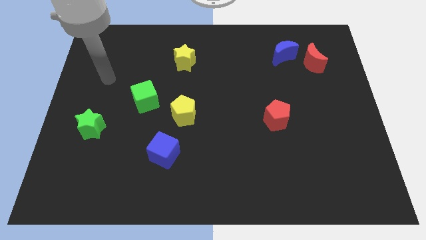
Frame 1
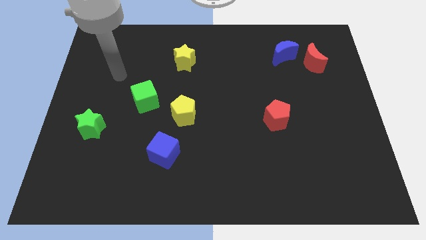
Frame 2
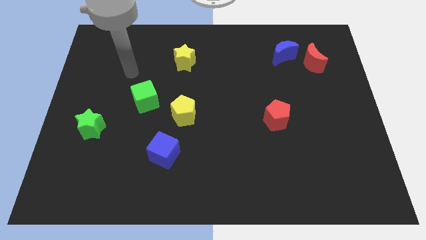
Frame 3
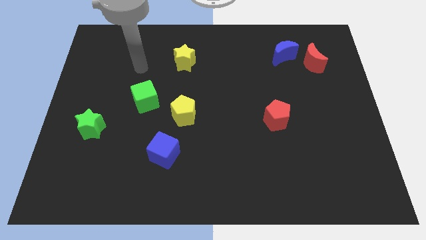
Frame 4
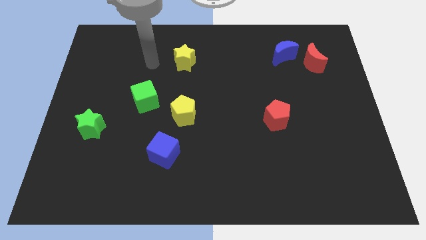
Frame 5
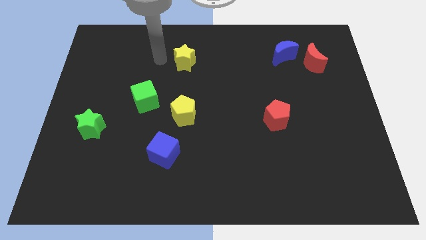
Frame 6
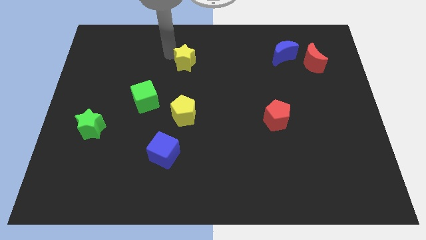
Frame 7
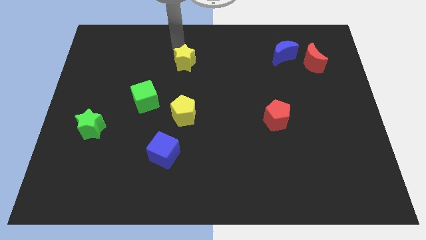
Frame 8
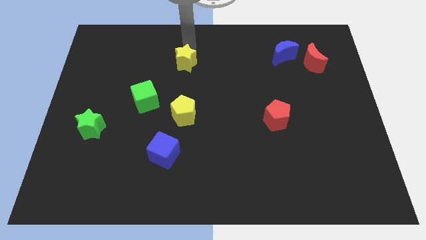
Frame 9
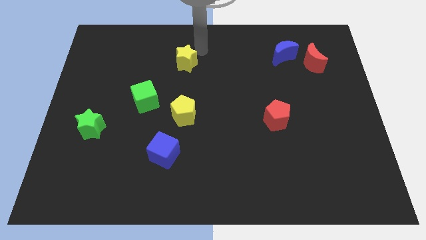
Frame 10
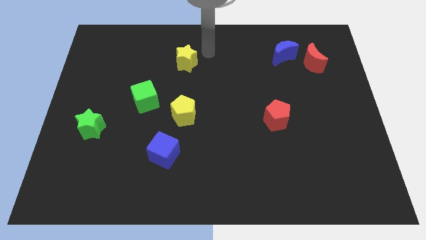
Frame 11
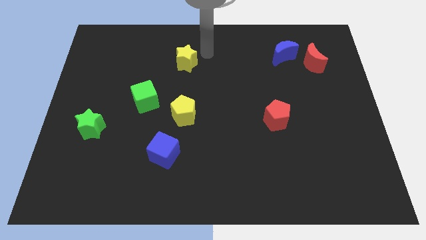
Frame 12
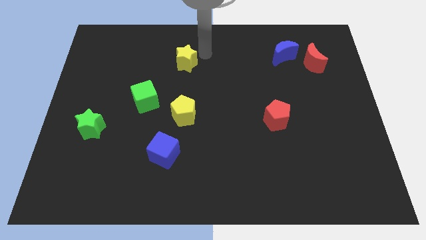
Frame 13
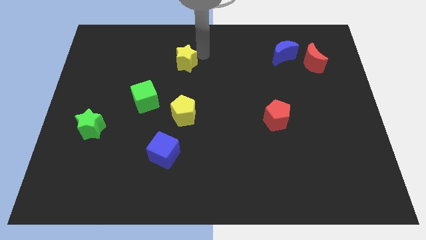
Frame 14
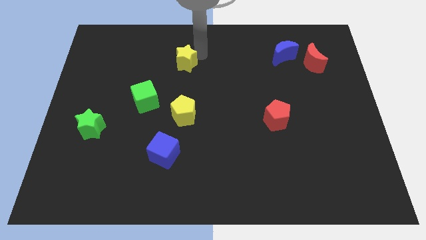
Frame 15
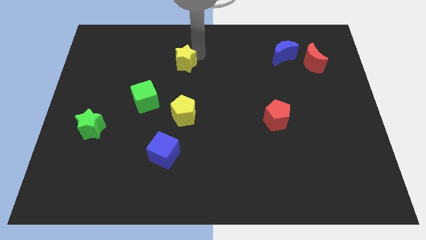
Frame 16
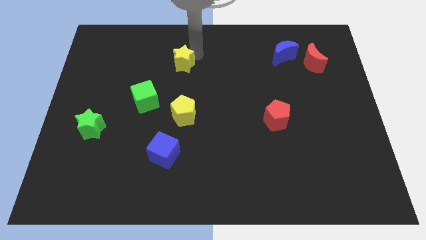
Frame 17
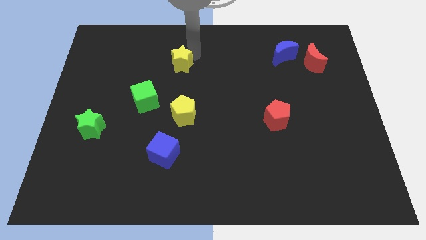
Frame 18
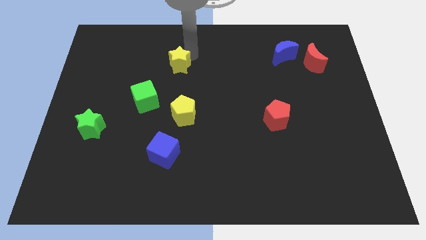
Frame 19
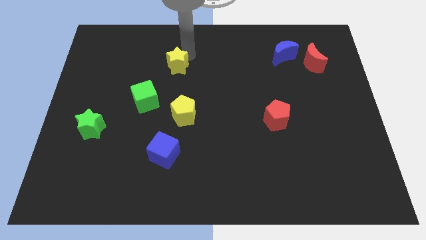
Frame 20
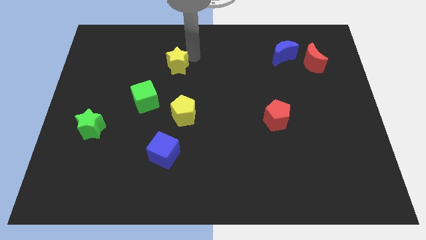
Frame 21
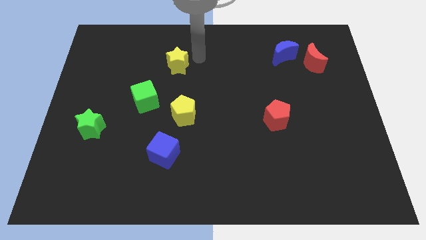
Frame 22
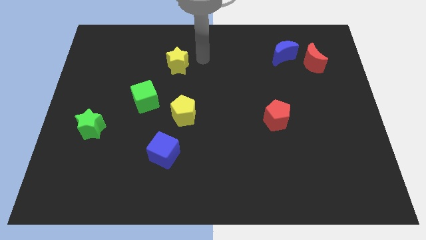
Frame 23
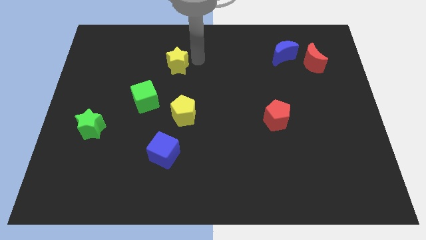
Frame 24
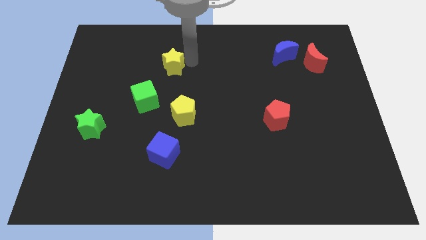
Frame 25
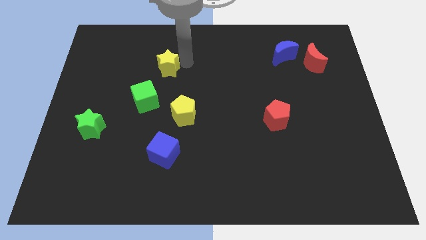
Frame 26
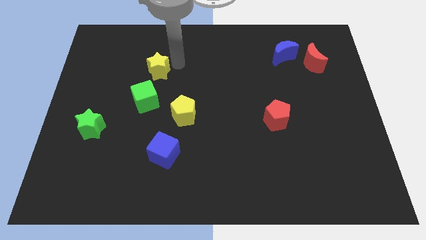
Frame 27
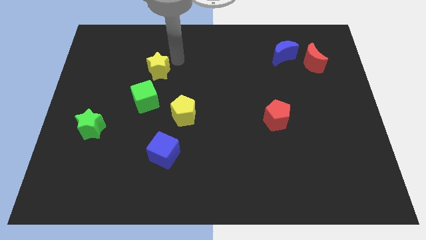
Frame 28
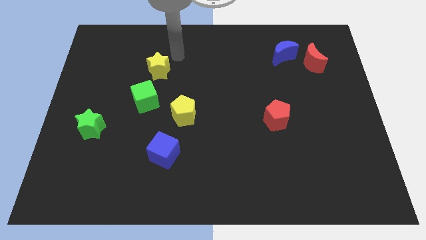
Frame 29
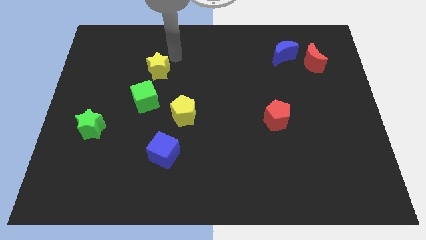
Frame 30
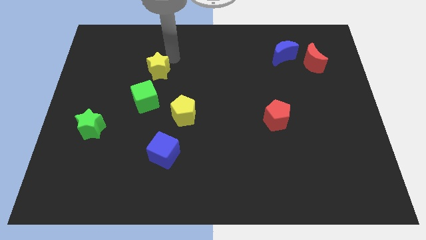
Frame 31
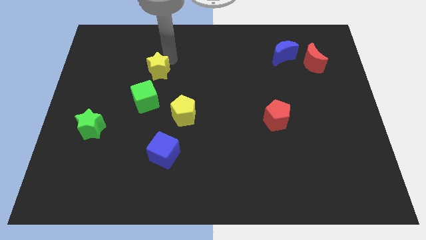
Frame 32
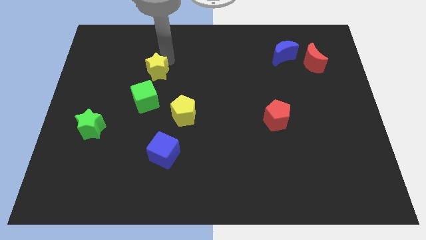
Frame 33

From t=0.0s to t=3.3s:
slide the yellow star downwards and left diagonally slightly

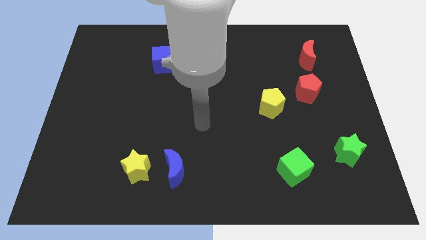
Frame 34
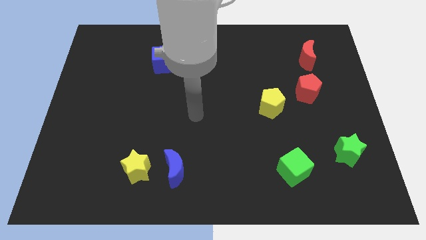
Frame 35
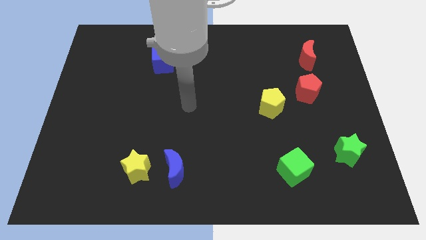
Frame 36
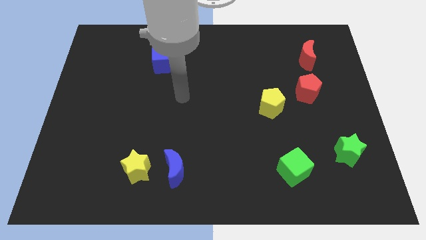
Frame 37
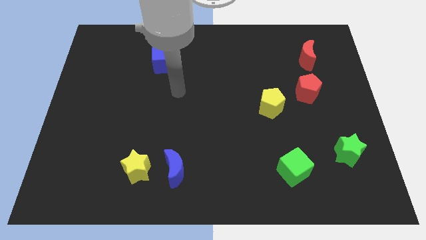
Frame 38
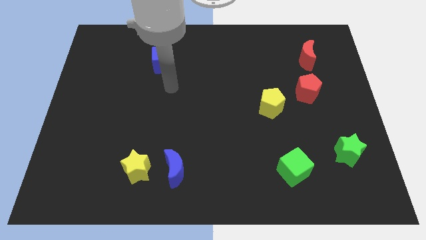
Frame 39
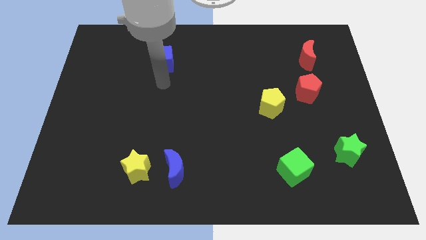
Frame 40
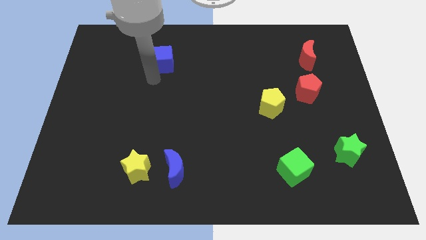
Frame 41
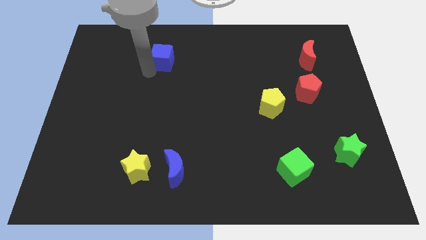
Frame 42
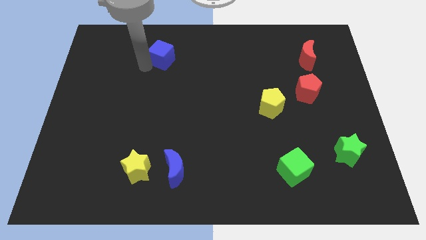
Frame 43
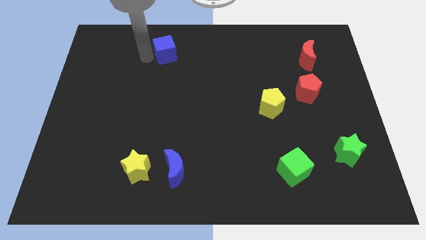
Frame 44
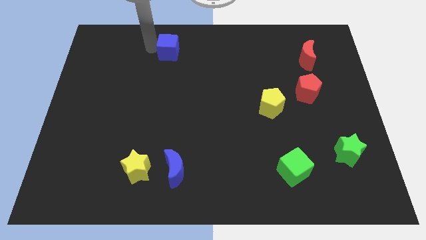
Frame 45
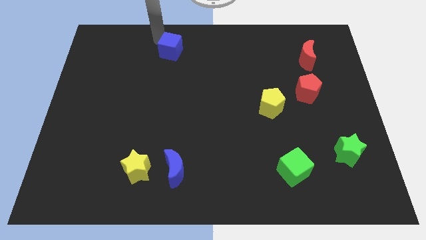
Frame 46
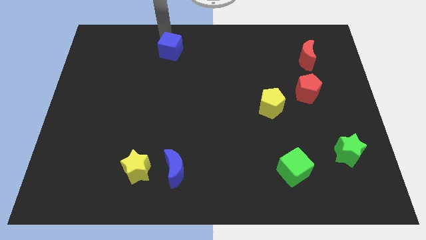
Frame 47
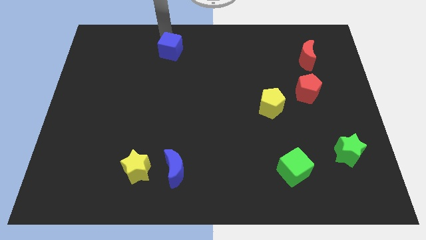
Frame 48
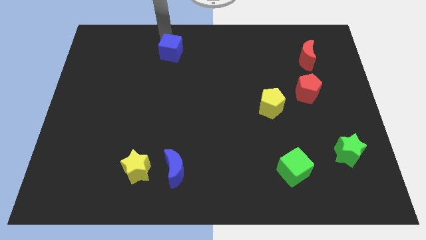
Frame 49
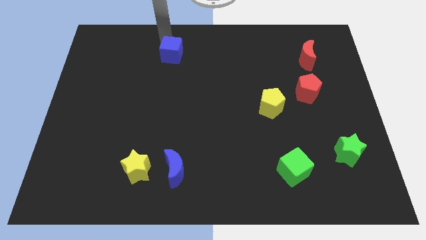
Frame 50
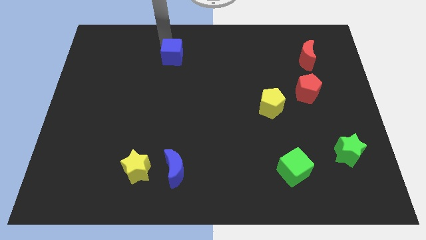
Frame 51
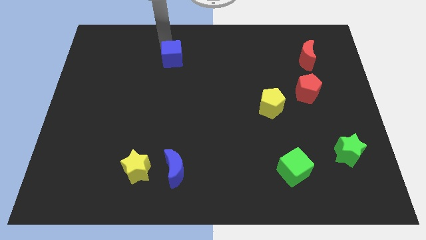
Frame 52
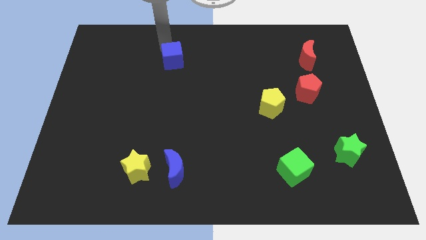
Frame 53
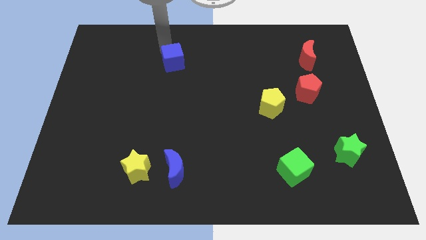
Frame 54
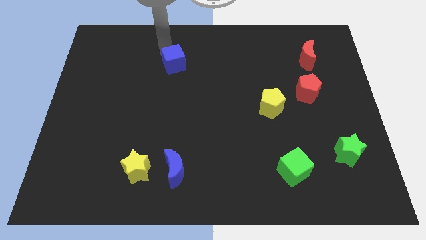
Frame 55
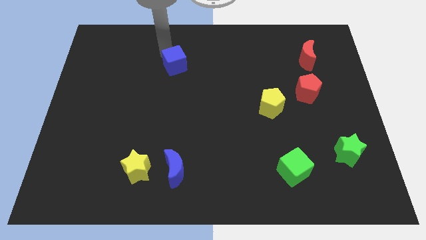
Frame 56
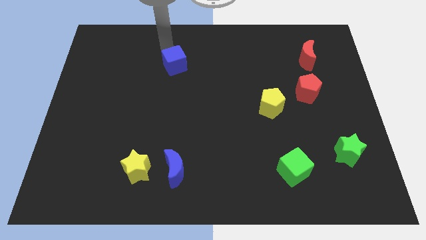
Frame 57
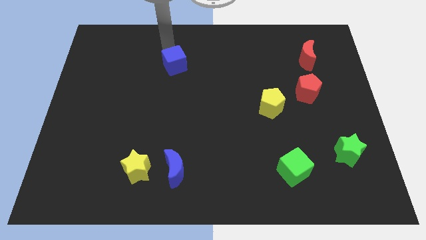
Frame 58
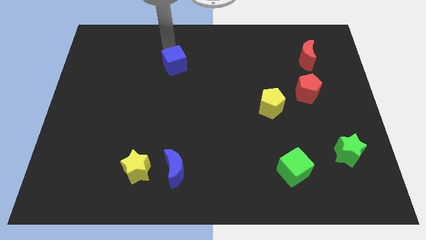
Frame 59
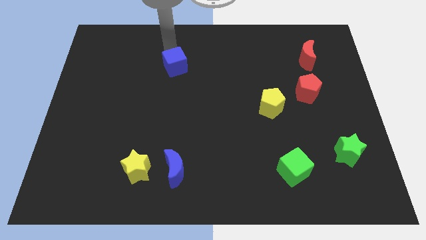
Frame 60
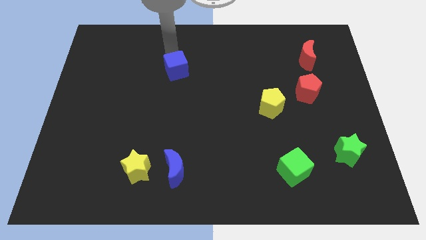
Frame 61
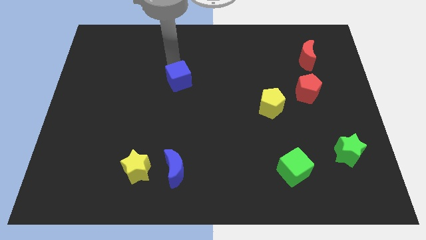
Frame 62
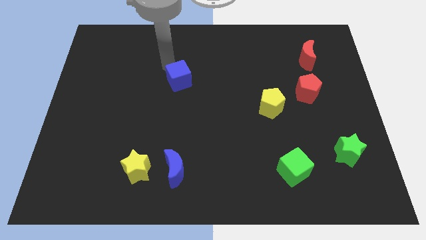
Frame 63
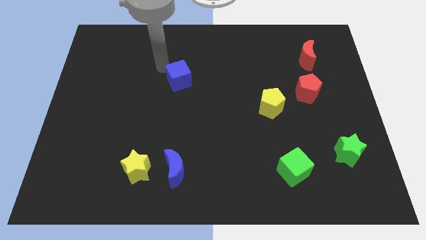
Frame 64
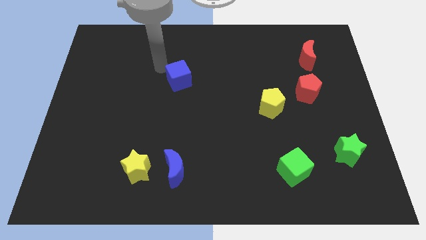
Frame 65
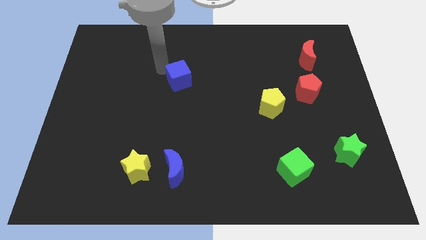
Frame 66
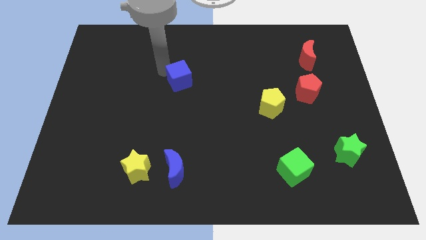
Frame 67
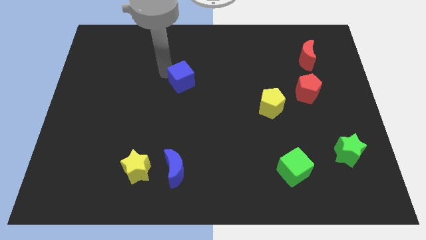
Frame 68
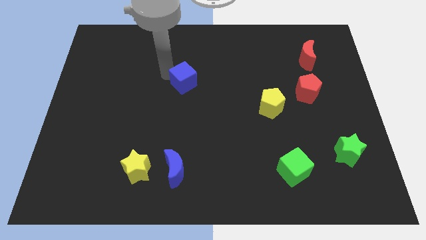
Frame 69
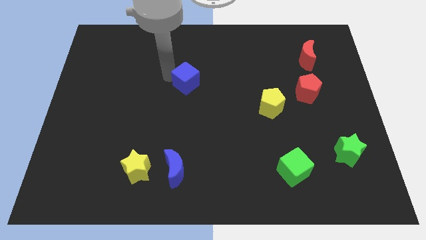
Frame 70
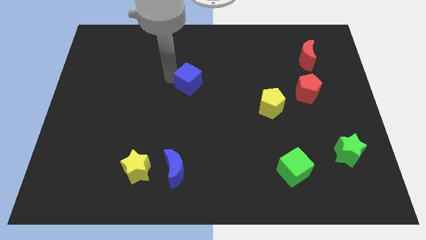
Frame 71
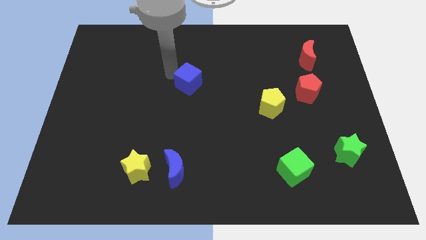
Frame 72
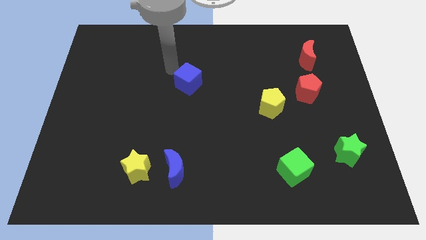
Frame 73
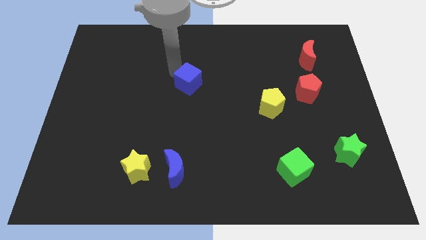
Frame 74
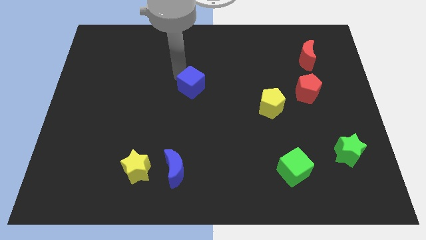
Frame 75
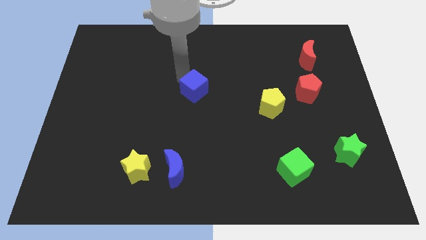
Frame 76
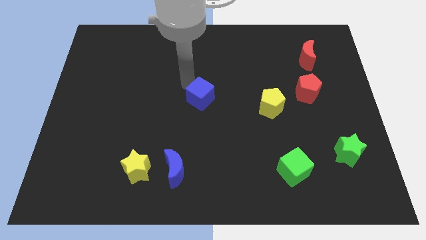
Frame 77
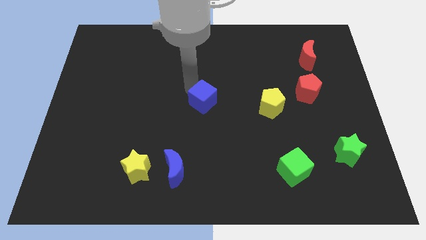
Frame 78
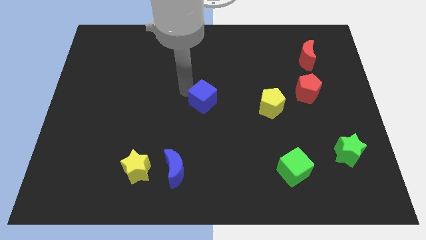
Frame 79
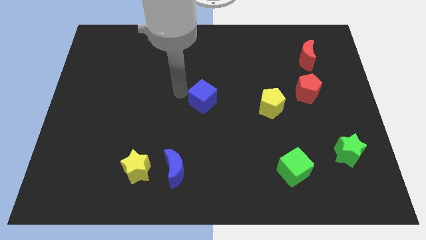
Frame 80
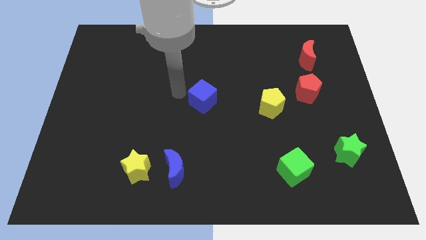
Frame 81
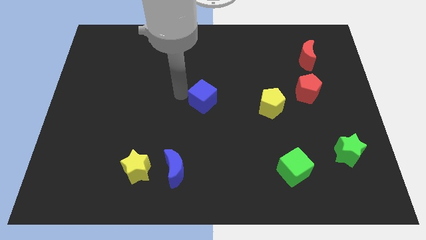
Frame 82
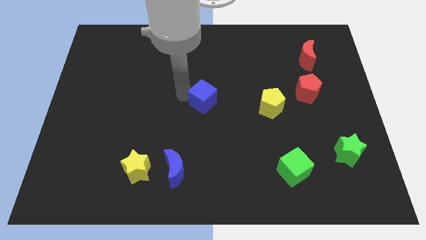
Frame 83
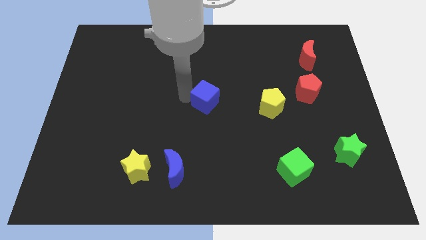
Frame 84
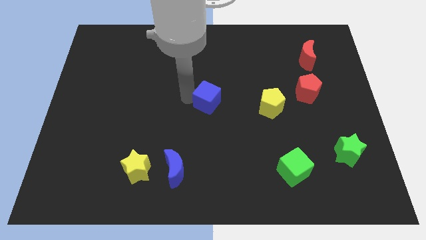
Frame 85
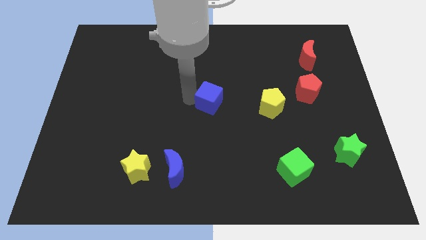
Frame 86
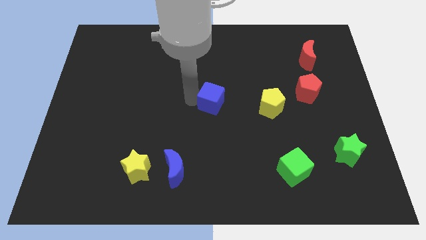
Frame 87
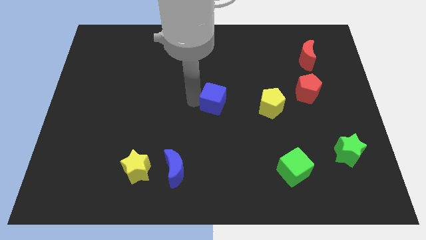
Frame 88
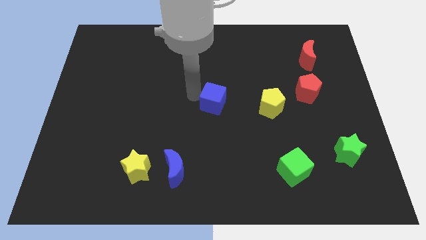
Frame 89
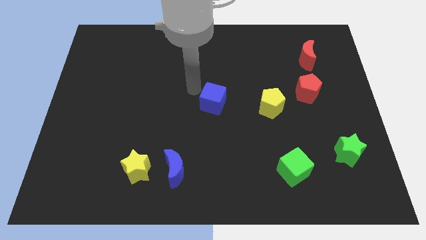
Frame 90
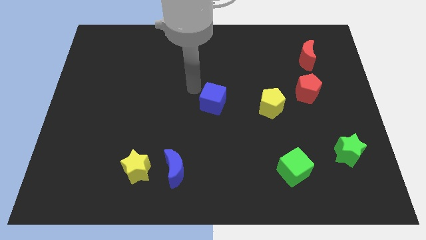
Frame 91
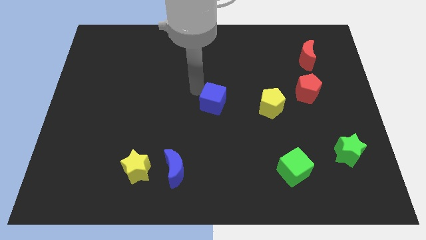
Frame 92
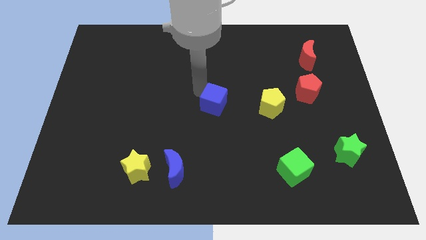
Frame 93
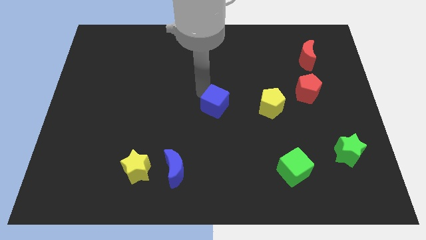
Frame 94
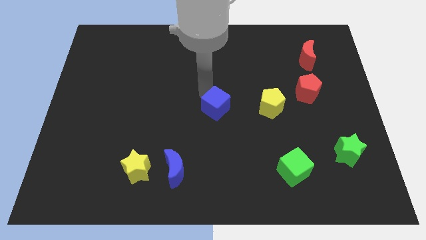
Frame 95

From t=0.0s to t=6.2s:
move the blue cube diagonally downwards and to the right
